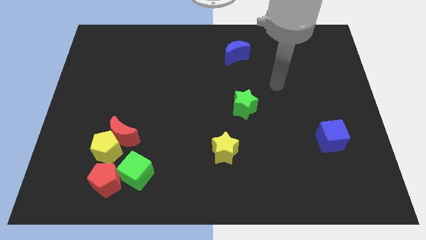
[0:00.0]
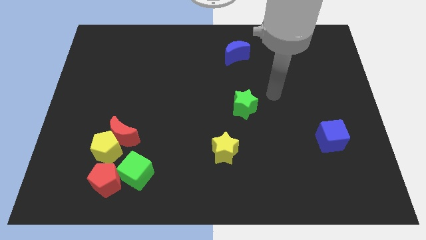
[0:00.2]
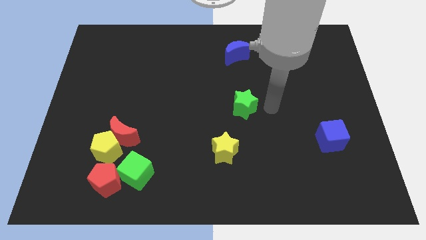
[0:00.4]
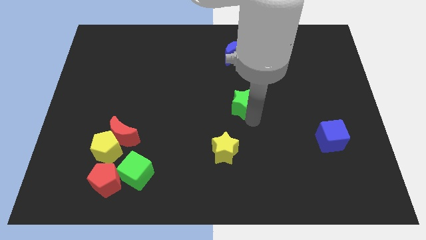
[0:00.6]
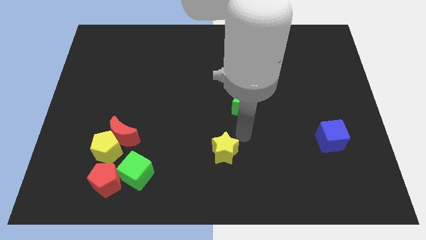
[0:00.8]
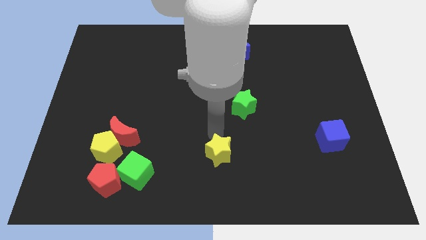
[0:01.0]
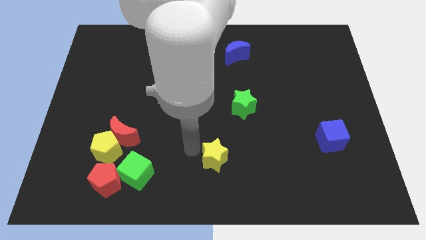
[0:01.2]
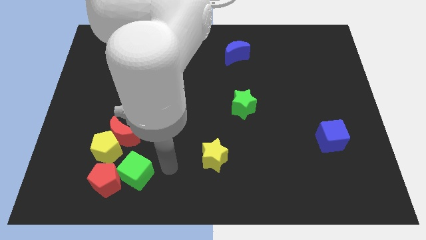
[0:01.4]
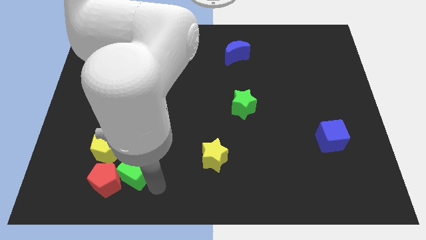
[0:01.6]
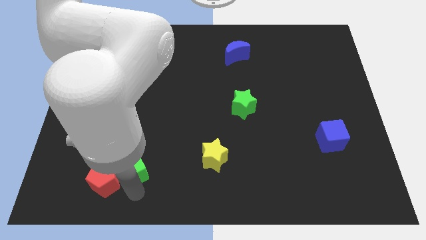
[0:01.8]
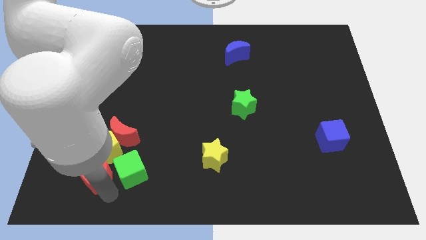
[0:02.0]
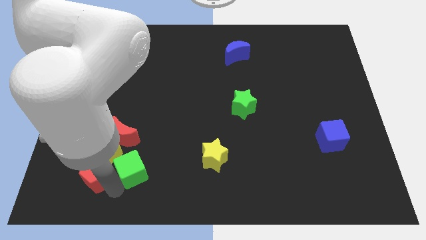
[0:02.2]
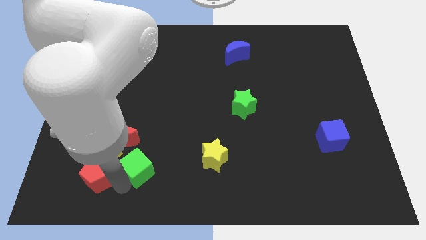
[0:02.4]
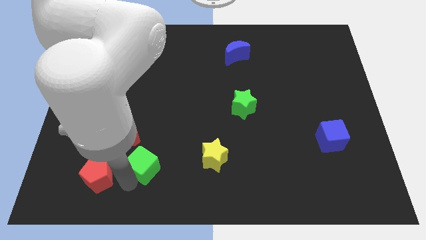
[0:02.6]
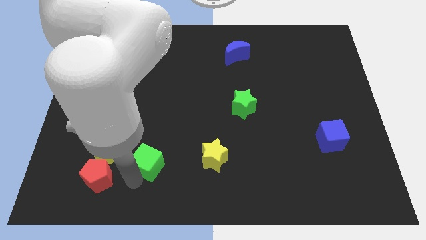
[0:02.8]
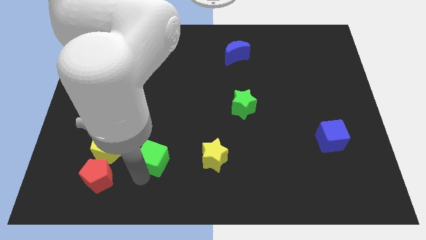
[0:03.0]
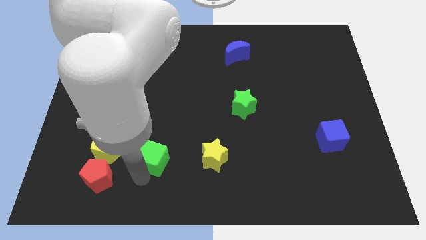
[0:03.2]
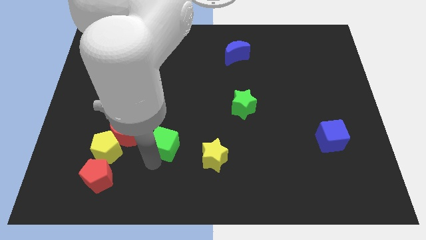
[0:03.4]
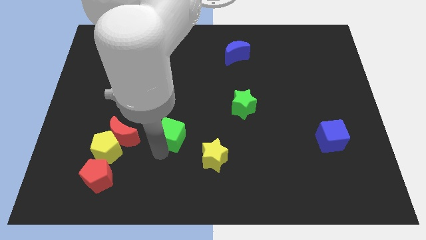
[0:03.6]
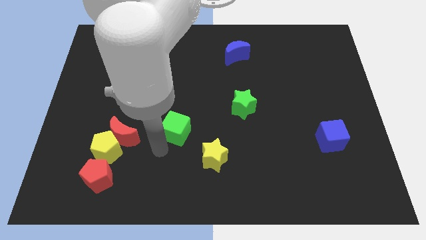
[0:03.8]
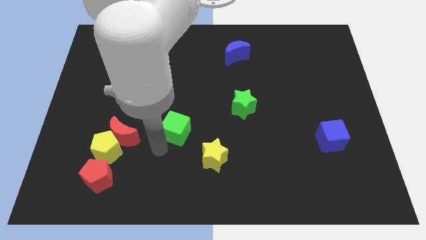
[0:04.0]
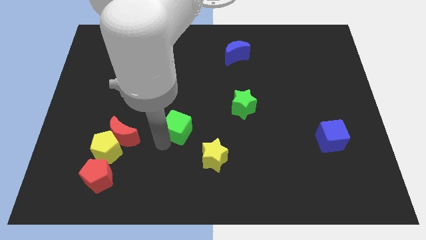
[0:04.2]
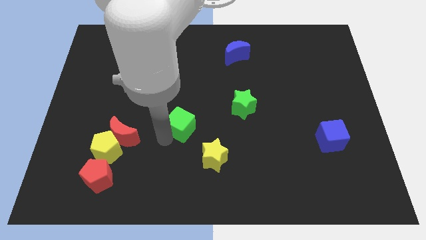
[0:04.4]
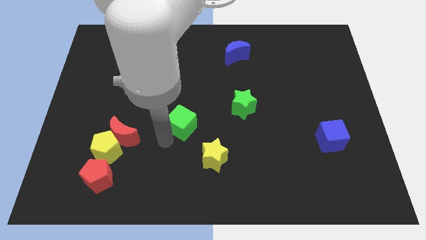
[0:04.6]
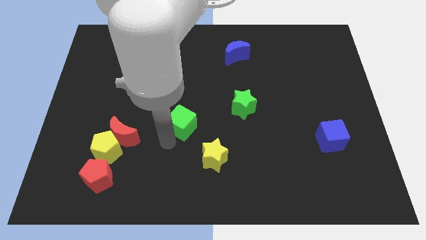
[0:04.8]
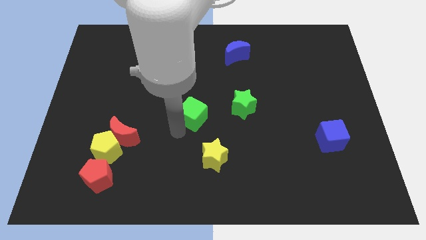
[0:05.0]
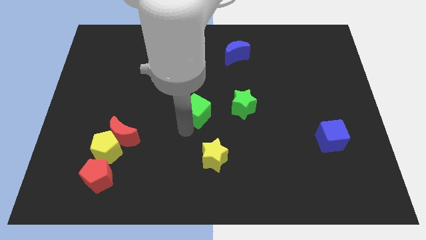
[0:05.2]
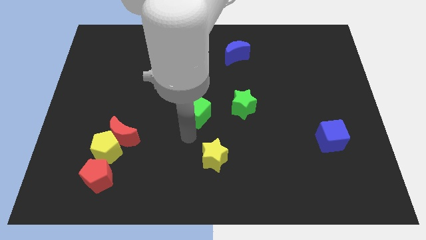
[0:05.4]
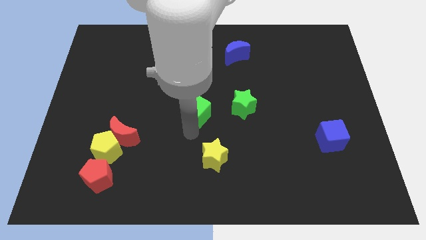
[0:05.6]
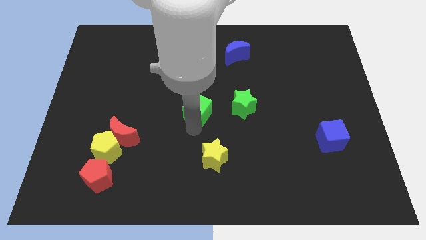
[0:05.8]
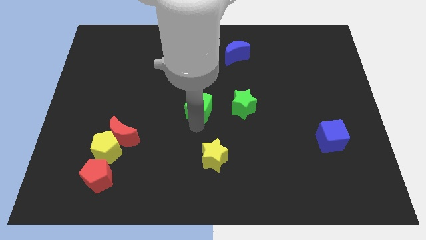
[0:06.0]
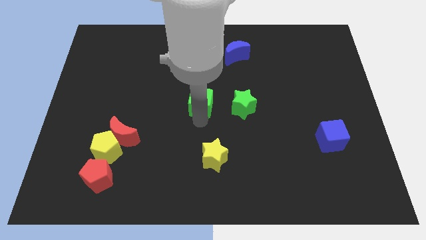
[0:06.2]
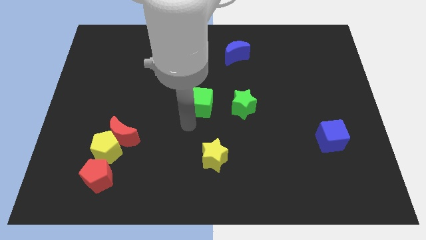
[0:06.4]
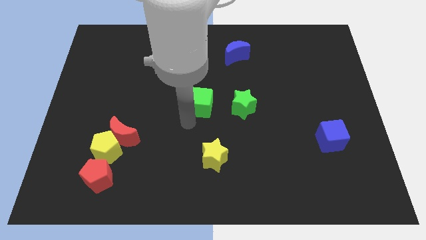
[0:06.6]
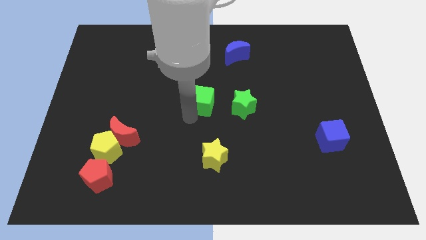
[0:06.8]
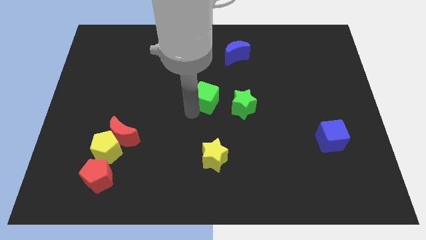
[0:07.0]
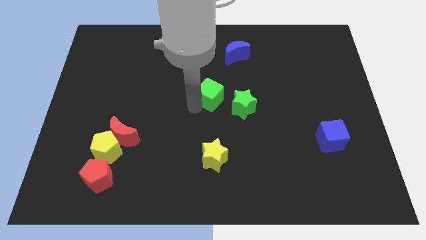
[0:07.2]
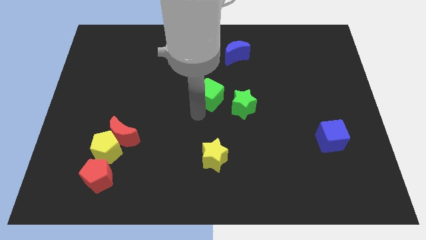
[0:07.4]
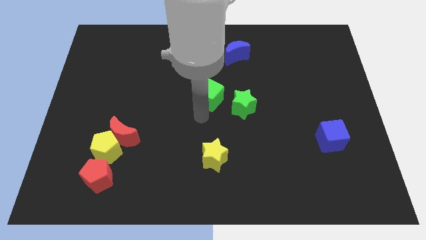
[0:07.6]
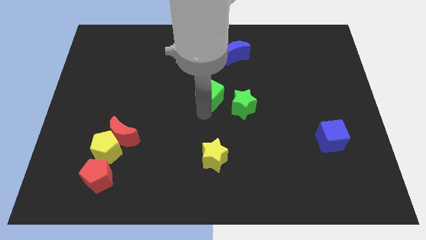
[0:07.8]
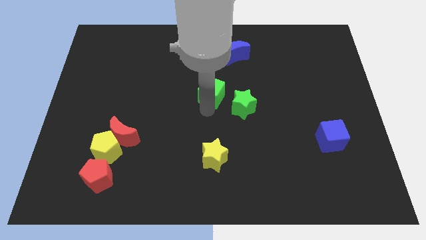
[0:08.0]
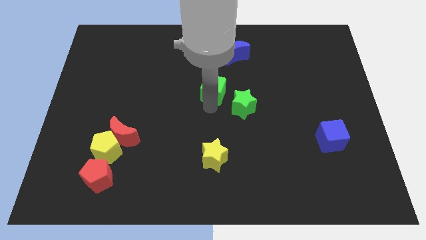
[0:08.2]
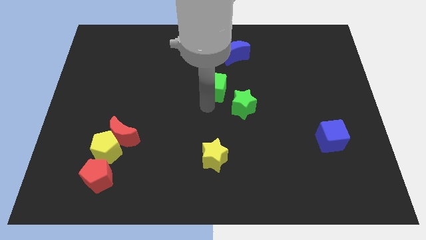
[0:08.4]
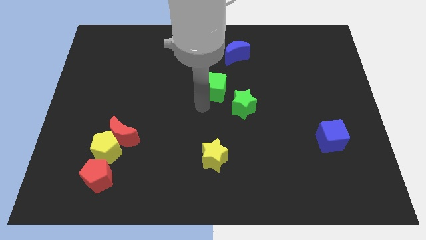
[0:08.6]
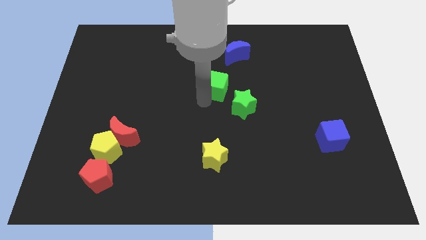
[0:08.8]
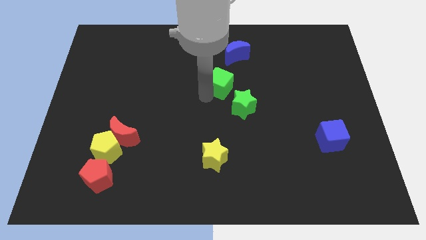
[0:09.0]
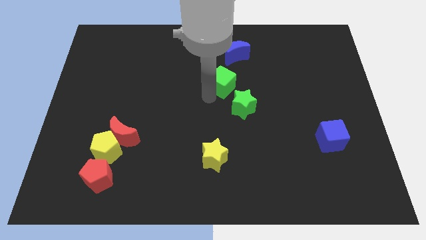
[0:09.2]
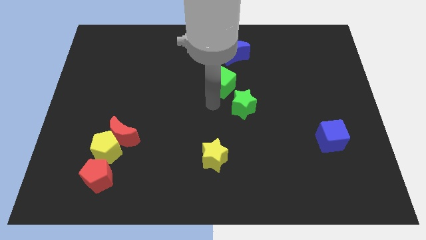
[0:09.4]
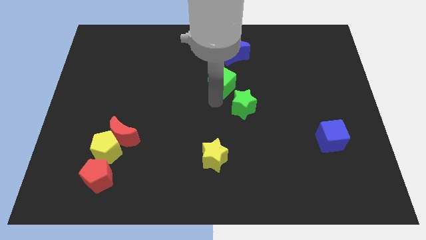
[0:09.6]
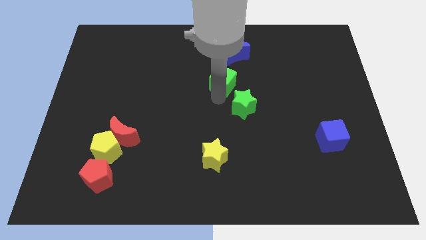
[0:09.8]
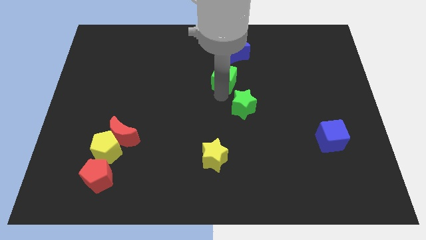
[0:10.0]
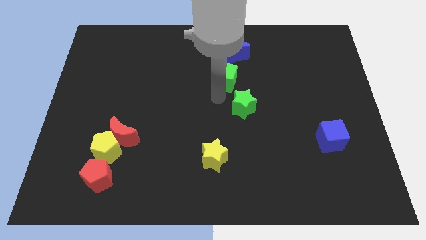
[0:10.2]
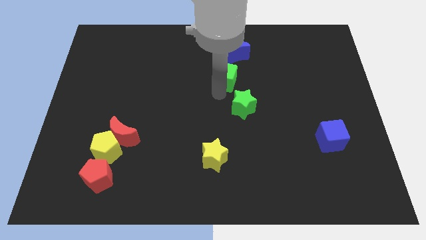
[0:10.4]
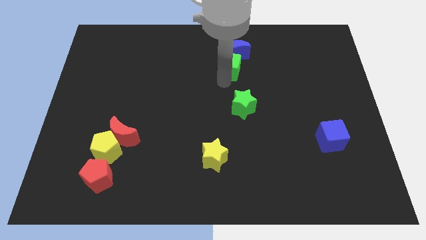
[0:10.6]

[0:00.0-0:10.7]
slide the green cube close to the blue moon

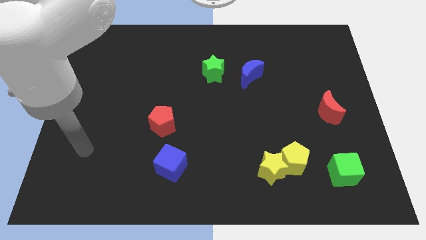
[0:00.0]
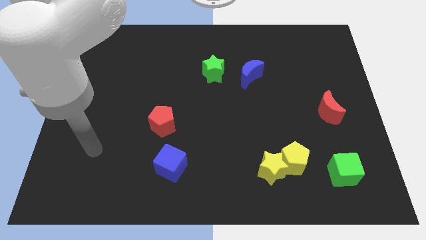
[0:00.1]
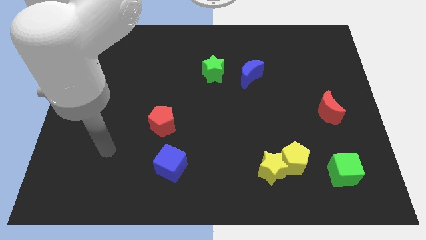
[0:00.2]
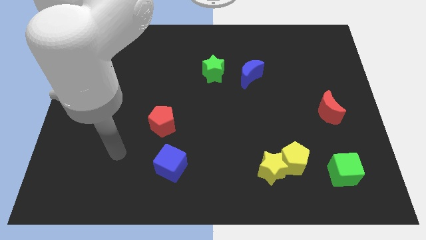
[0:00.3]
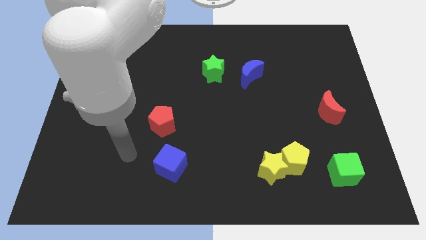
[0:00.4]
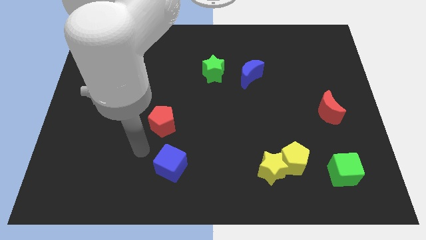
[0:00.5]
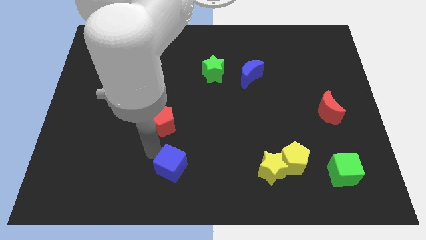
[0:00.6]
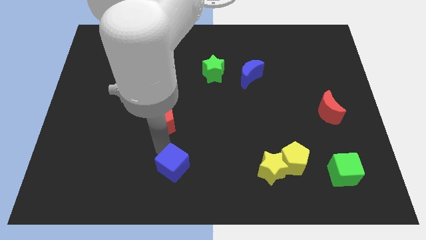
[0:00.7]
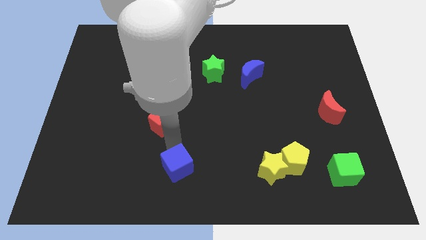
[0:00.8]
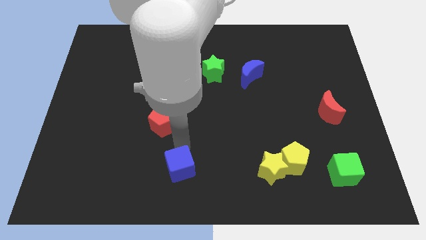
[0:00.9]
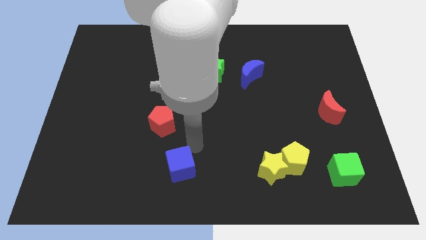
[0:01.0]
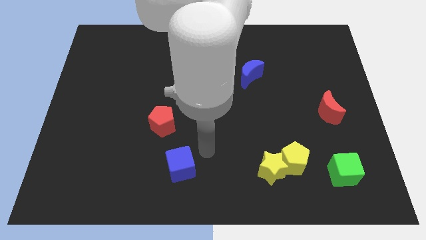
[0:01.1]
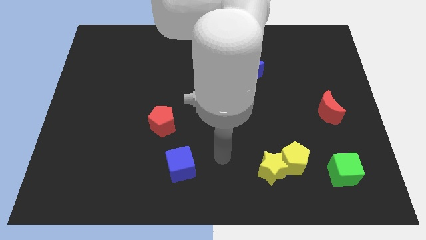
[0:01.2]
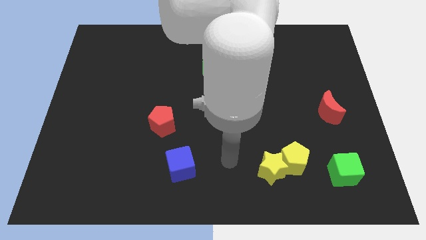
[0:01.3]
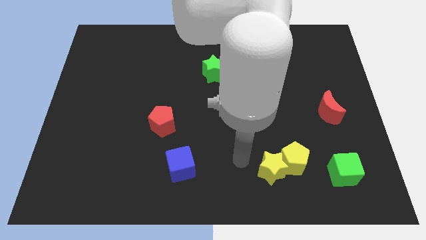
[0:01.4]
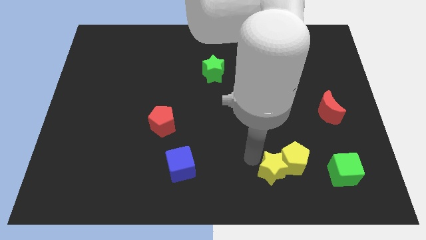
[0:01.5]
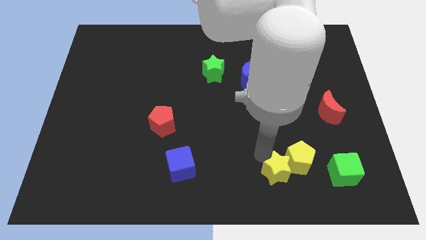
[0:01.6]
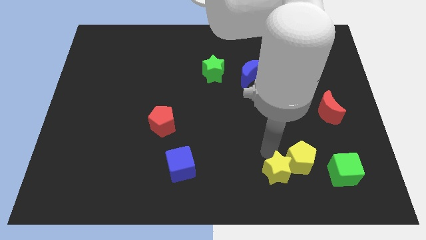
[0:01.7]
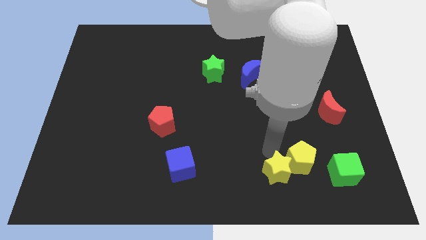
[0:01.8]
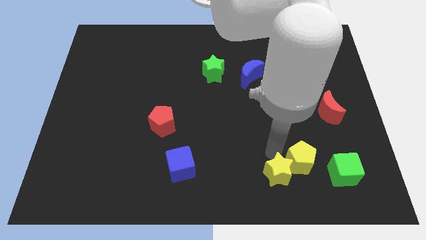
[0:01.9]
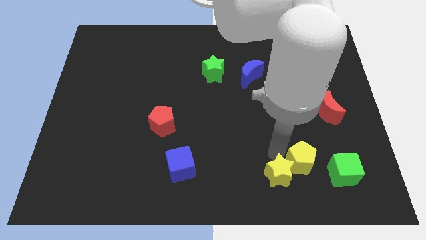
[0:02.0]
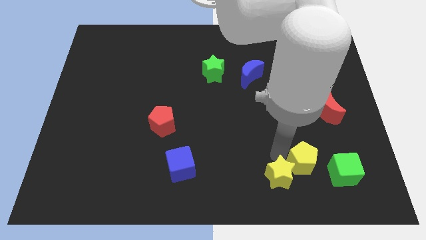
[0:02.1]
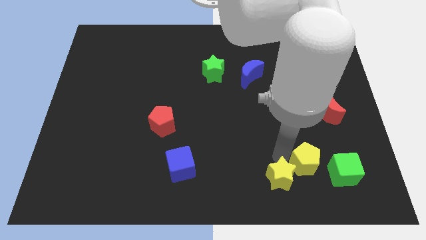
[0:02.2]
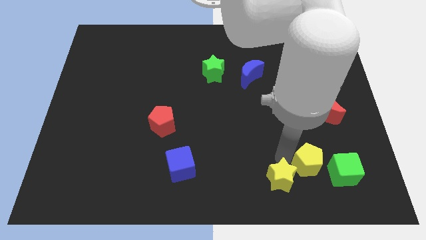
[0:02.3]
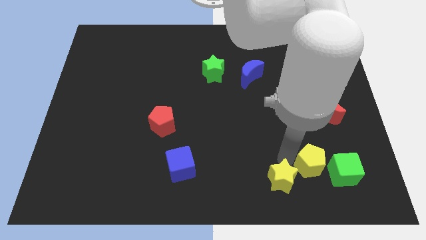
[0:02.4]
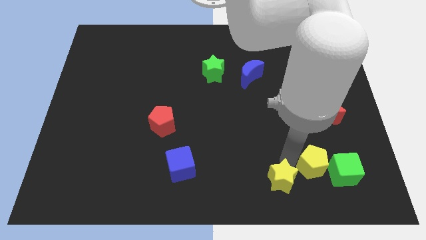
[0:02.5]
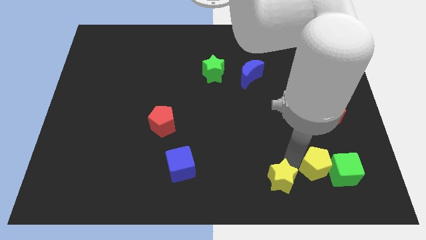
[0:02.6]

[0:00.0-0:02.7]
move the yellow pentagon to the green cube
